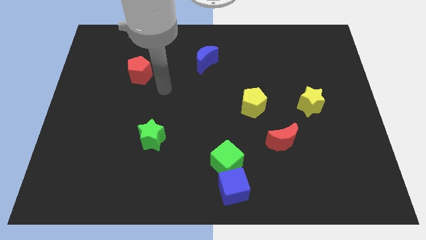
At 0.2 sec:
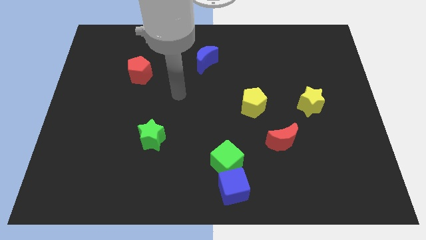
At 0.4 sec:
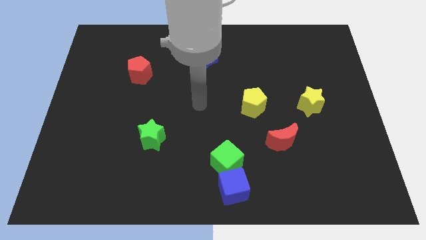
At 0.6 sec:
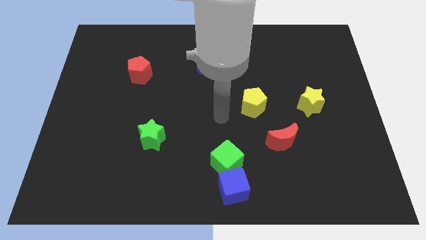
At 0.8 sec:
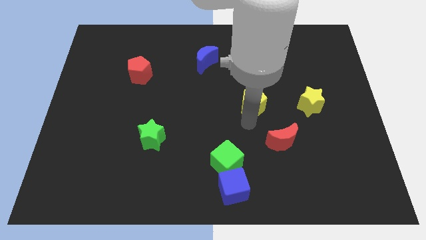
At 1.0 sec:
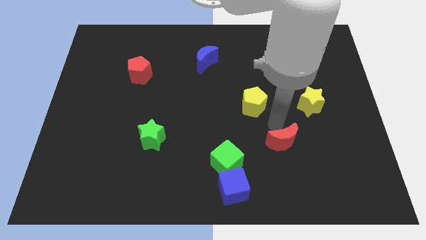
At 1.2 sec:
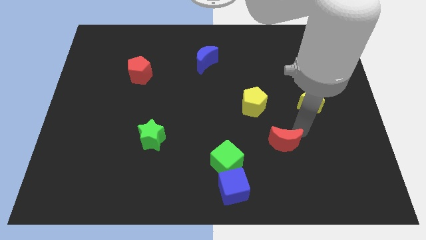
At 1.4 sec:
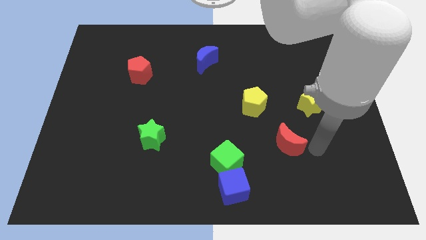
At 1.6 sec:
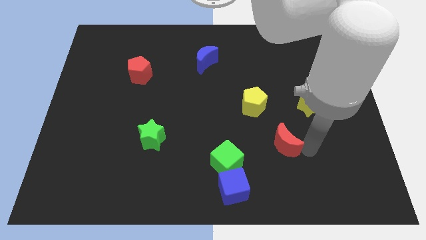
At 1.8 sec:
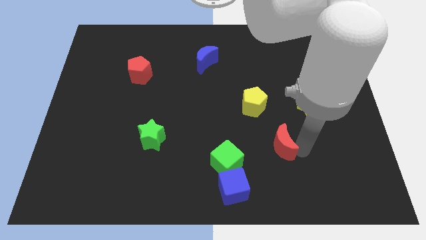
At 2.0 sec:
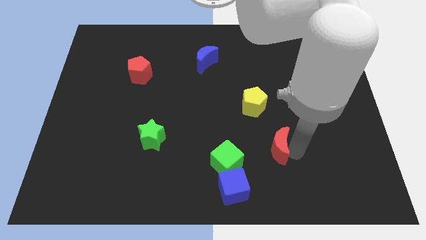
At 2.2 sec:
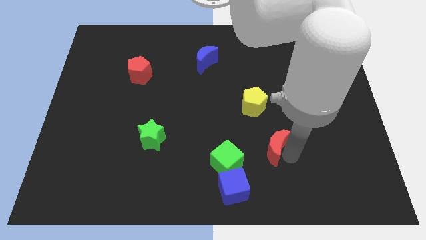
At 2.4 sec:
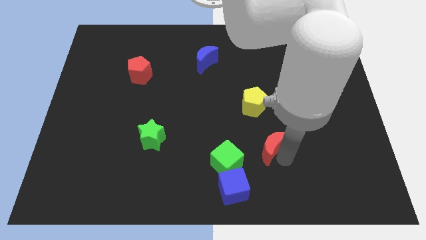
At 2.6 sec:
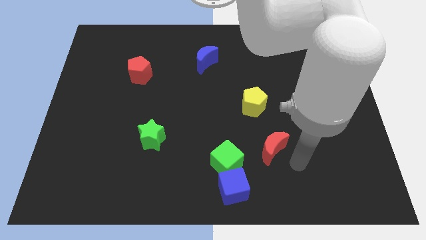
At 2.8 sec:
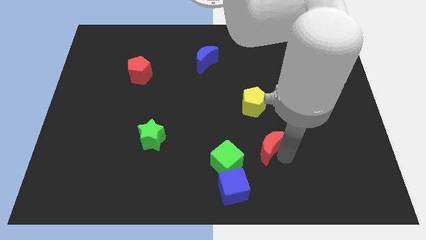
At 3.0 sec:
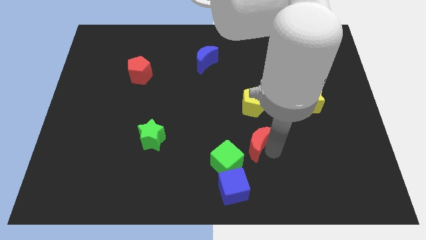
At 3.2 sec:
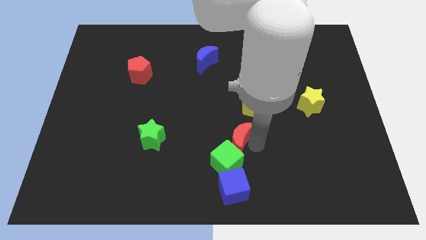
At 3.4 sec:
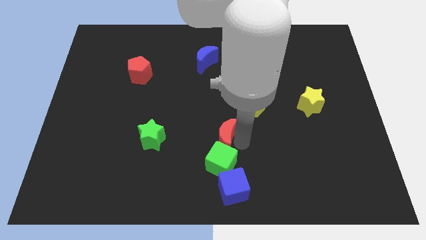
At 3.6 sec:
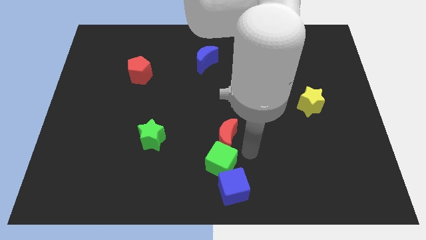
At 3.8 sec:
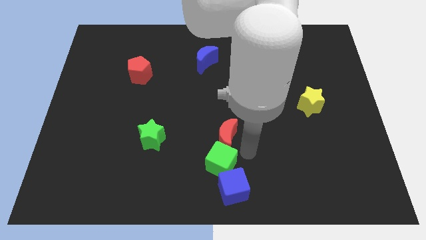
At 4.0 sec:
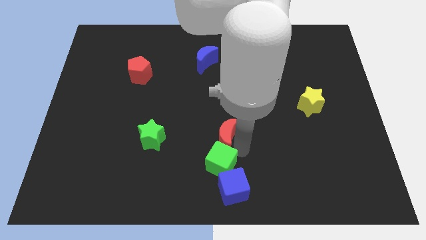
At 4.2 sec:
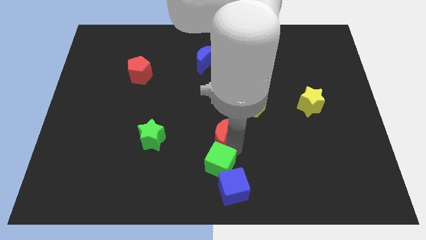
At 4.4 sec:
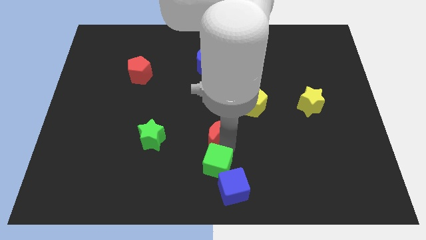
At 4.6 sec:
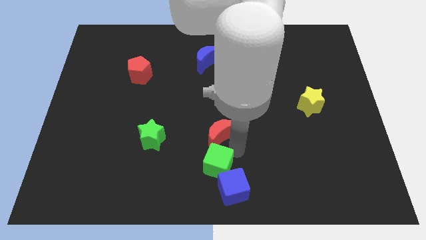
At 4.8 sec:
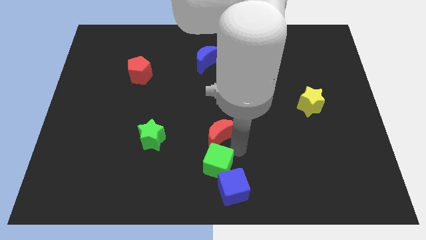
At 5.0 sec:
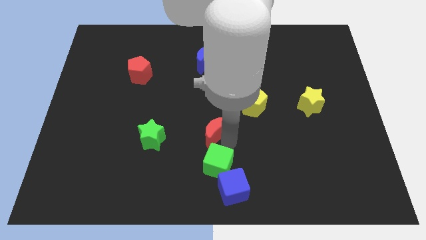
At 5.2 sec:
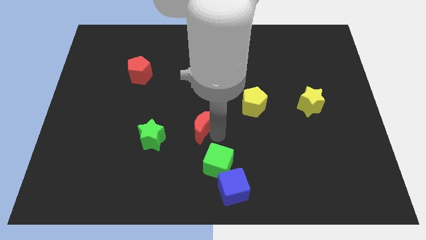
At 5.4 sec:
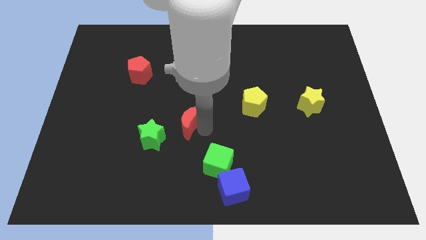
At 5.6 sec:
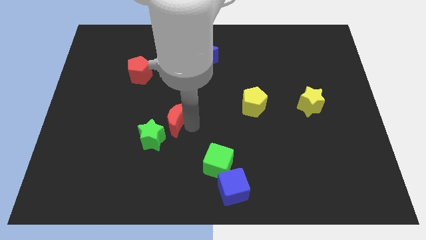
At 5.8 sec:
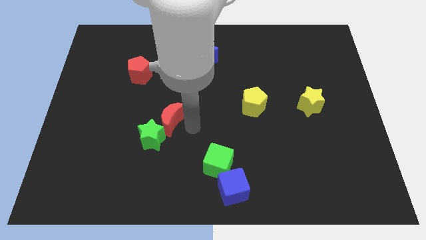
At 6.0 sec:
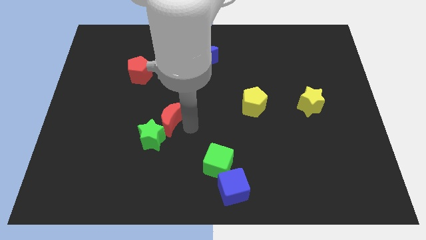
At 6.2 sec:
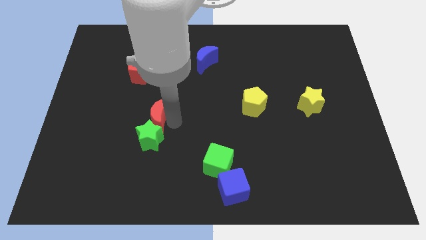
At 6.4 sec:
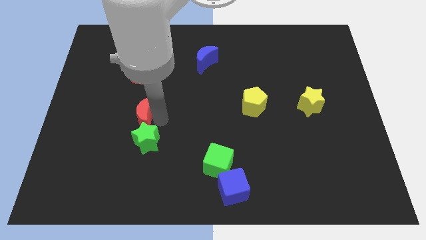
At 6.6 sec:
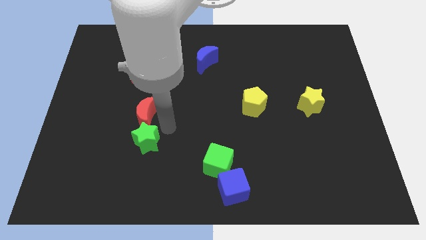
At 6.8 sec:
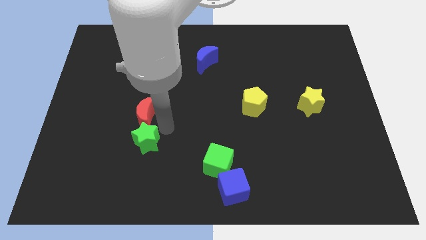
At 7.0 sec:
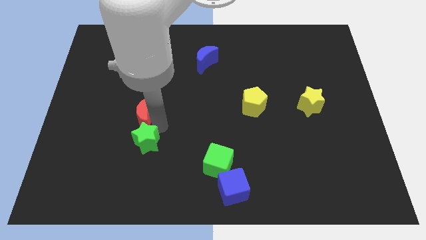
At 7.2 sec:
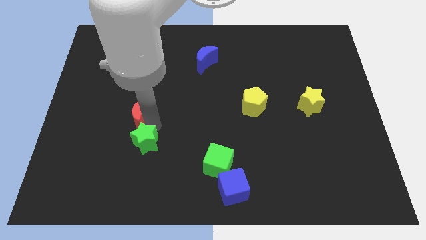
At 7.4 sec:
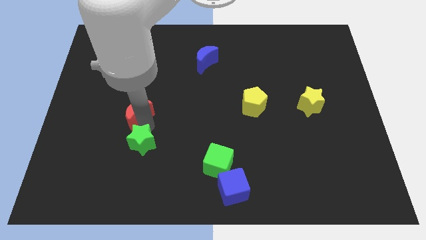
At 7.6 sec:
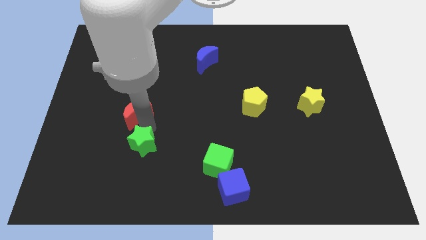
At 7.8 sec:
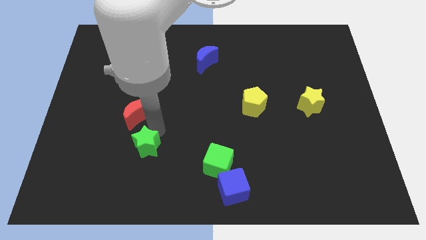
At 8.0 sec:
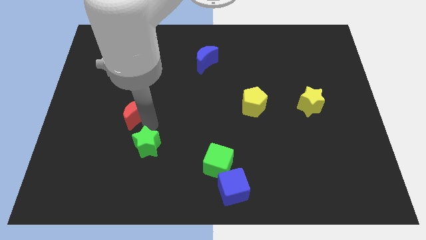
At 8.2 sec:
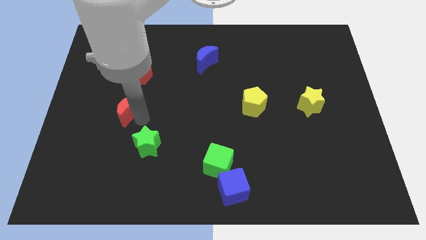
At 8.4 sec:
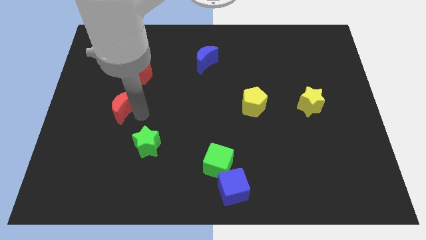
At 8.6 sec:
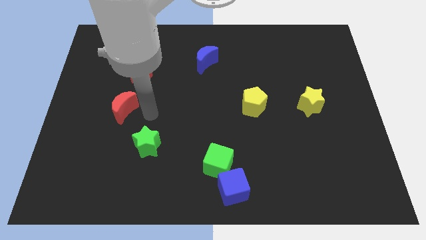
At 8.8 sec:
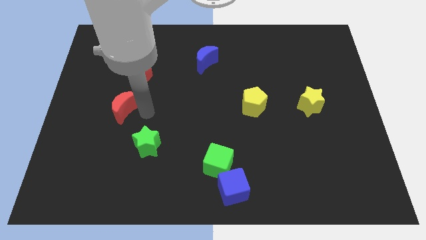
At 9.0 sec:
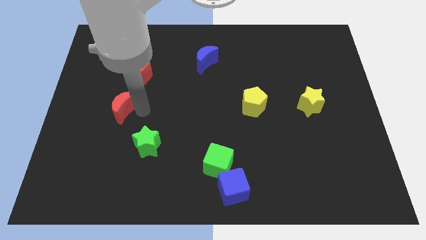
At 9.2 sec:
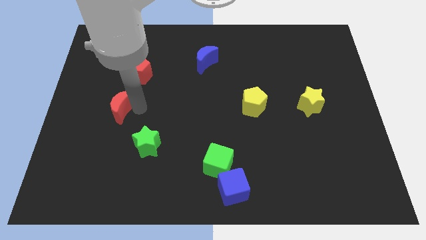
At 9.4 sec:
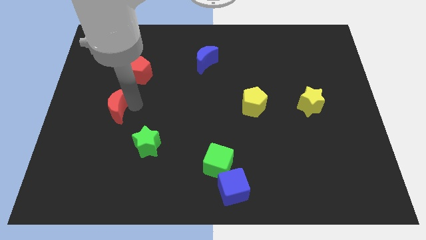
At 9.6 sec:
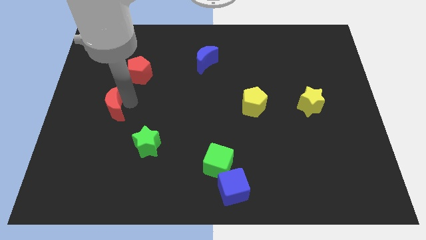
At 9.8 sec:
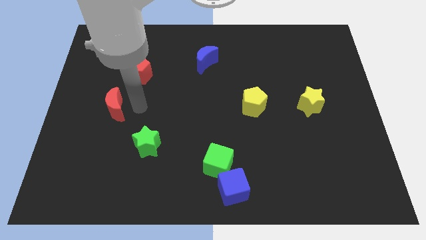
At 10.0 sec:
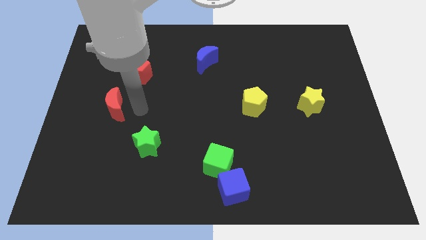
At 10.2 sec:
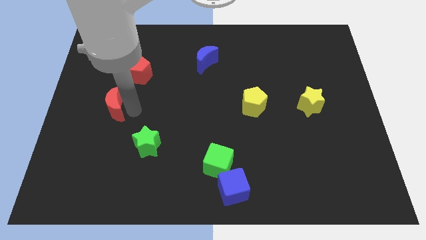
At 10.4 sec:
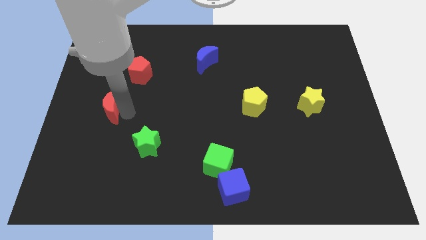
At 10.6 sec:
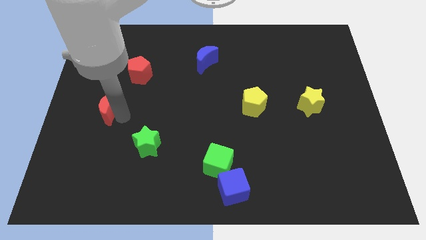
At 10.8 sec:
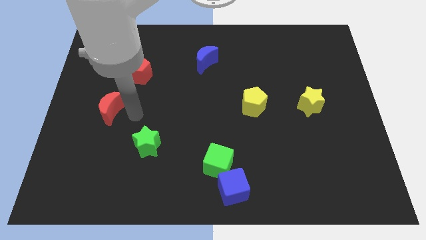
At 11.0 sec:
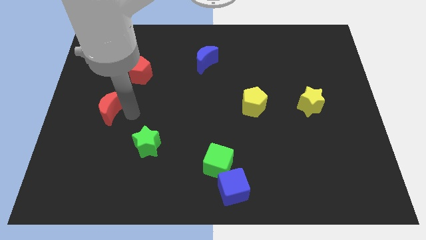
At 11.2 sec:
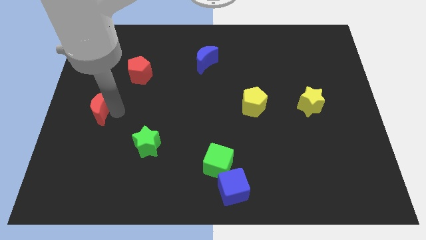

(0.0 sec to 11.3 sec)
push the red moon to the left side of the board
